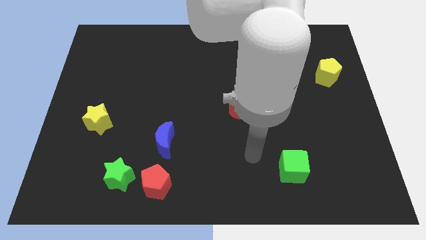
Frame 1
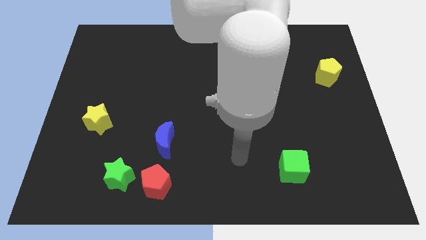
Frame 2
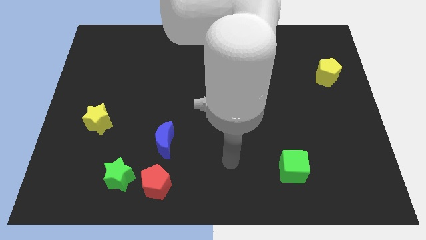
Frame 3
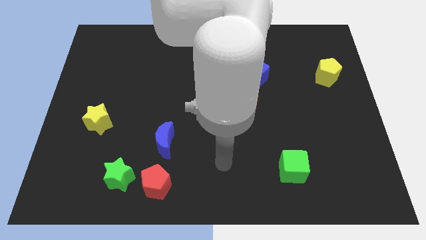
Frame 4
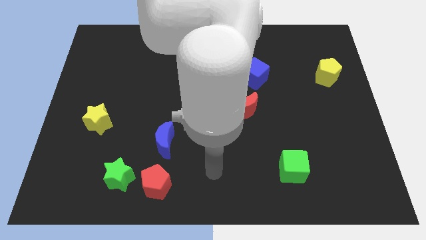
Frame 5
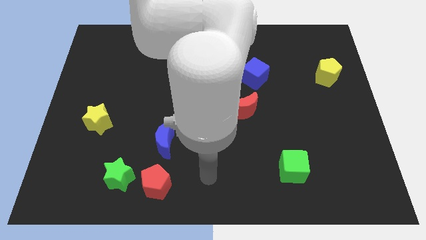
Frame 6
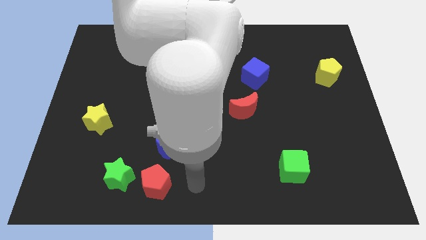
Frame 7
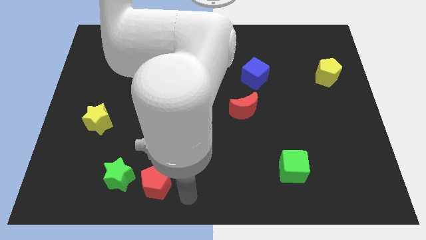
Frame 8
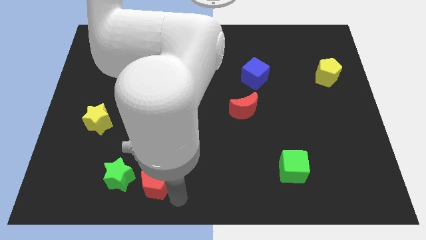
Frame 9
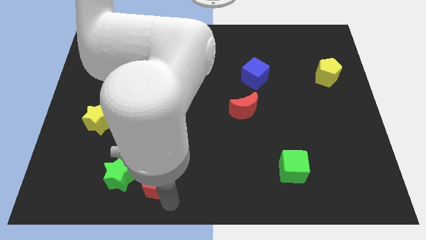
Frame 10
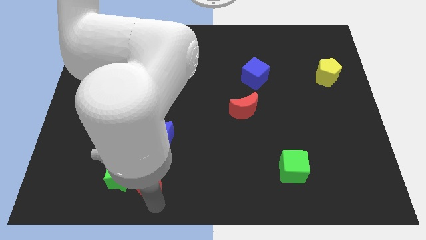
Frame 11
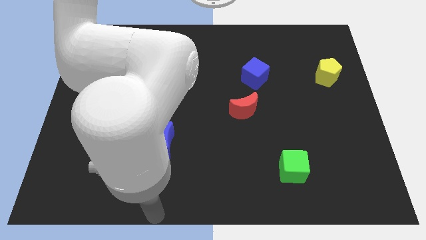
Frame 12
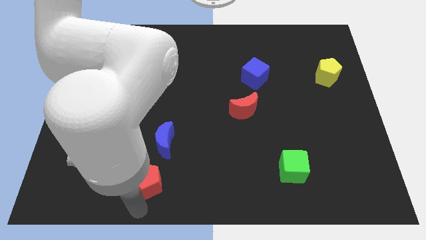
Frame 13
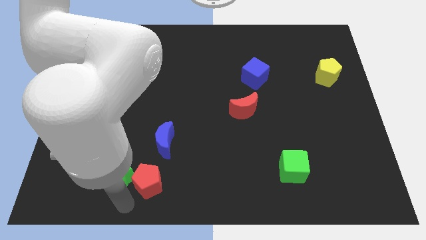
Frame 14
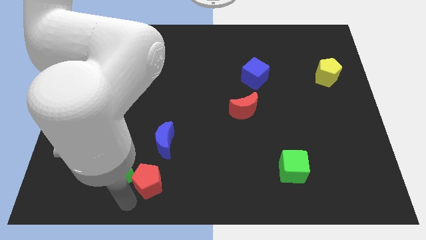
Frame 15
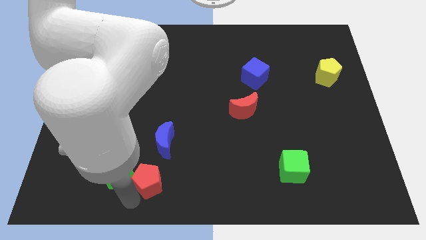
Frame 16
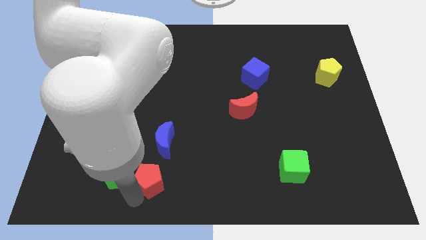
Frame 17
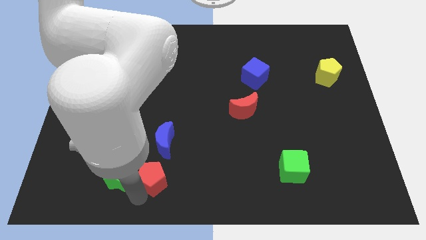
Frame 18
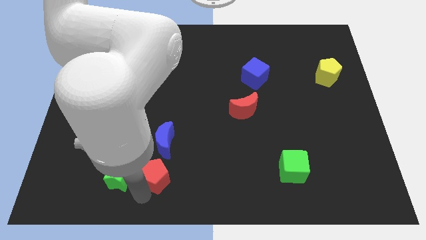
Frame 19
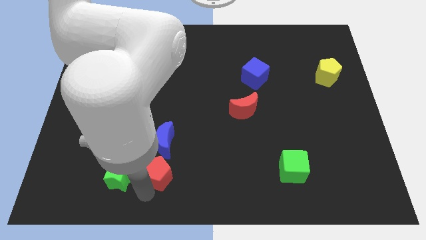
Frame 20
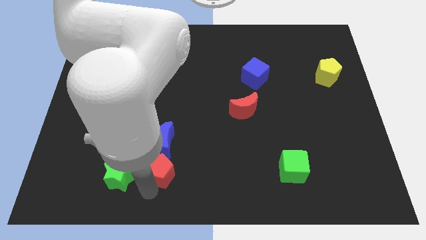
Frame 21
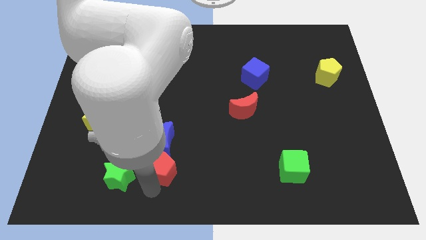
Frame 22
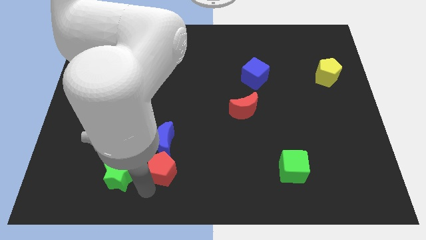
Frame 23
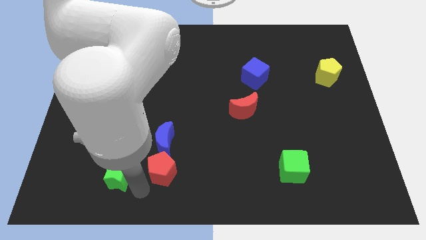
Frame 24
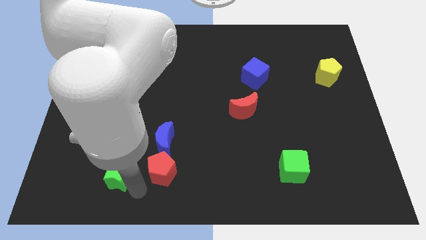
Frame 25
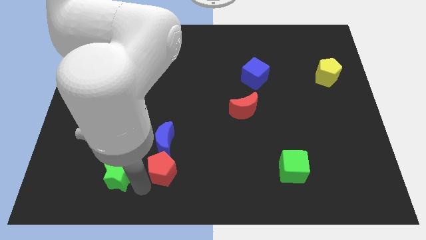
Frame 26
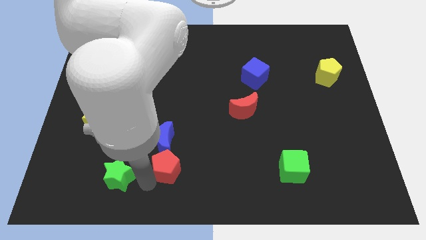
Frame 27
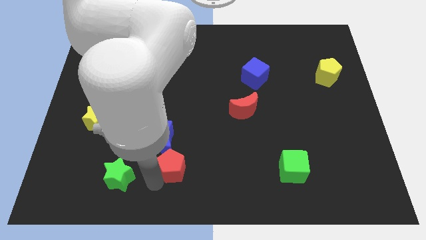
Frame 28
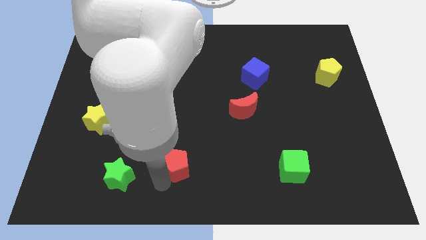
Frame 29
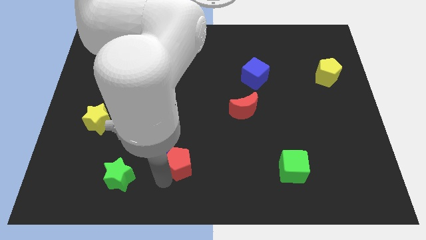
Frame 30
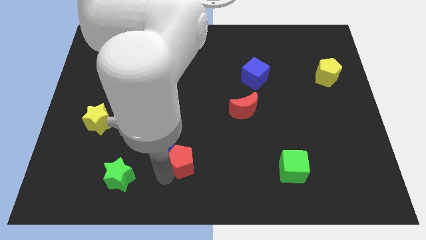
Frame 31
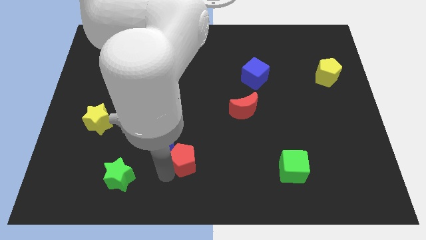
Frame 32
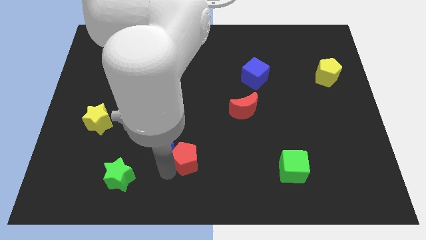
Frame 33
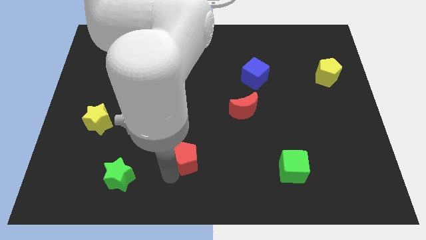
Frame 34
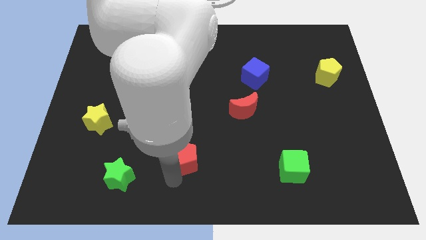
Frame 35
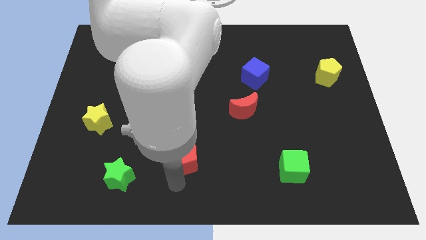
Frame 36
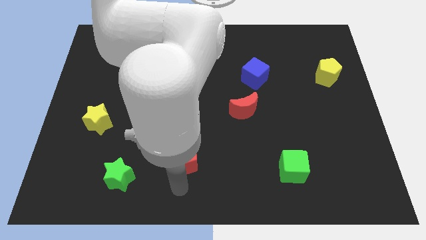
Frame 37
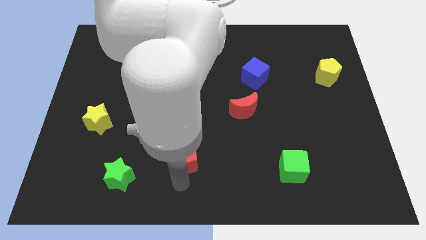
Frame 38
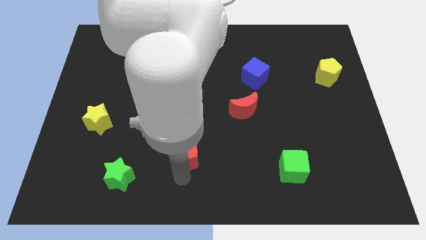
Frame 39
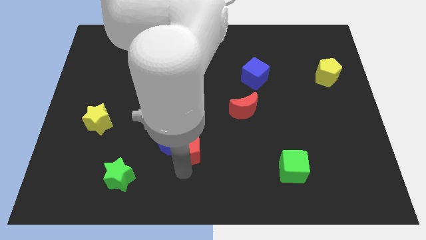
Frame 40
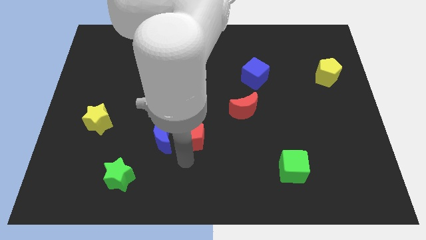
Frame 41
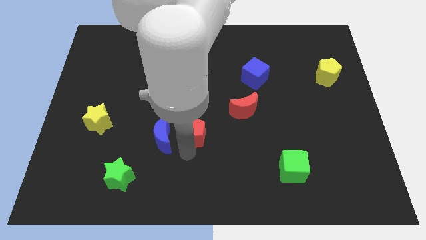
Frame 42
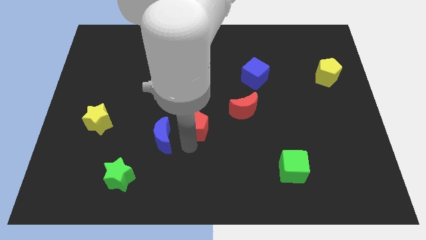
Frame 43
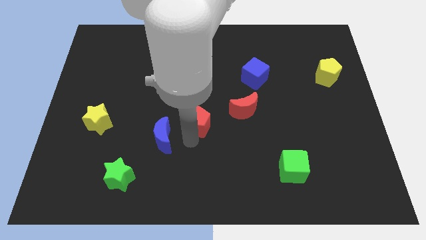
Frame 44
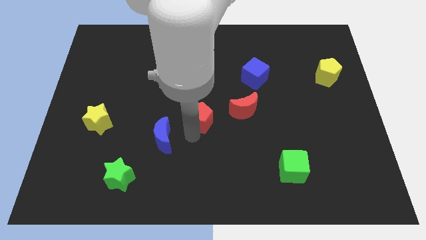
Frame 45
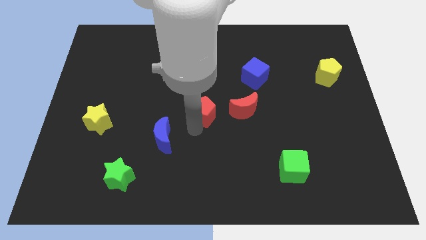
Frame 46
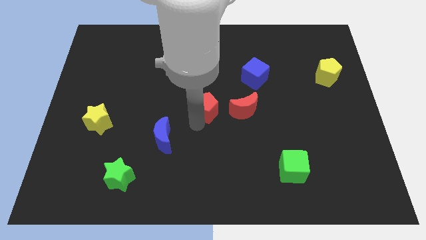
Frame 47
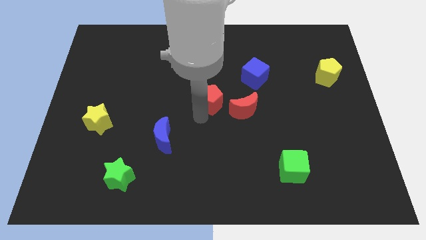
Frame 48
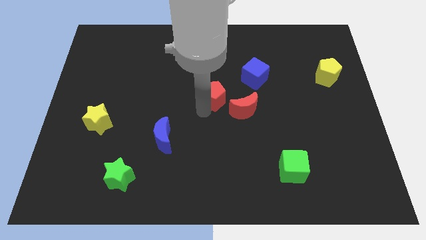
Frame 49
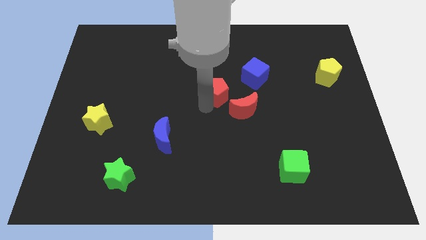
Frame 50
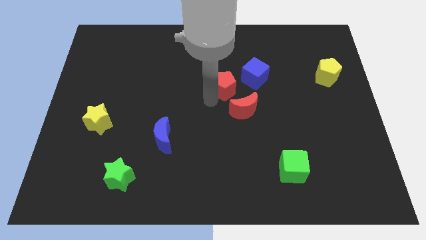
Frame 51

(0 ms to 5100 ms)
put the red pentagon to the top of the red moon

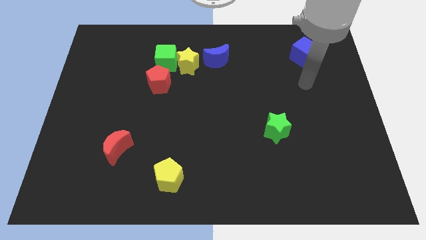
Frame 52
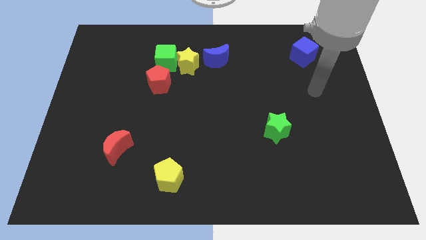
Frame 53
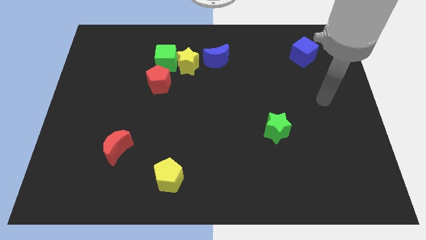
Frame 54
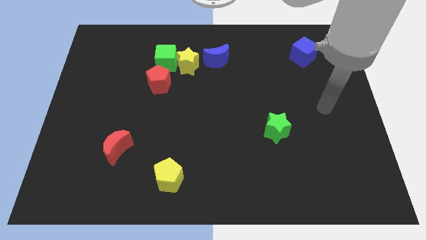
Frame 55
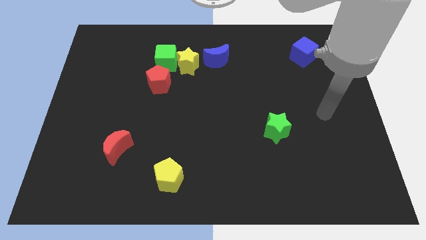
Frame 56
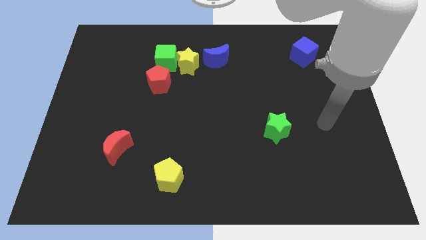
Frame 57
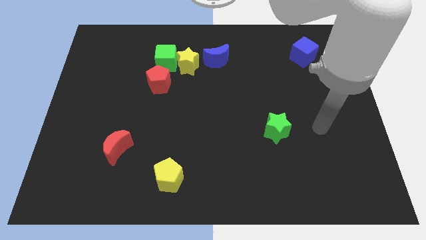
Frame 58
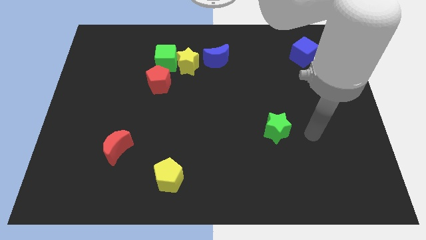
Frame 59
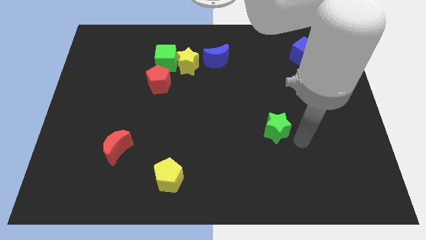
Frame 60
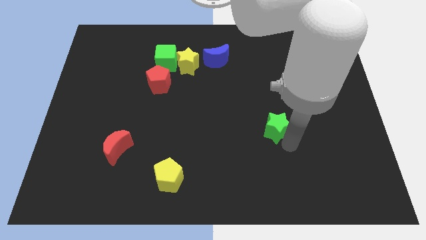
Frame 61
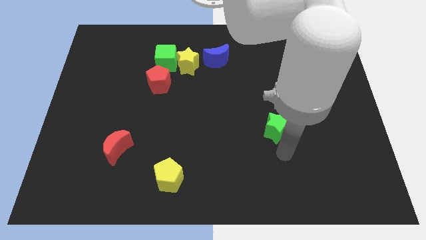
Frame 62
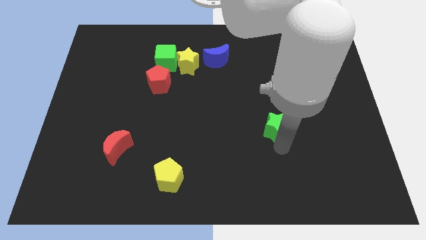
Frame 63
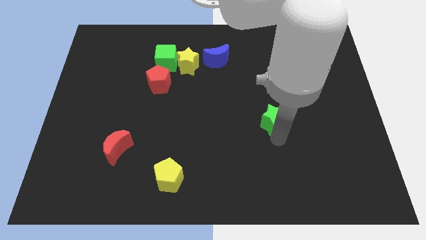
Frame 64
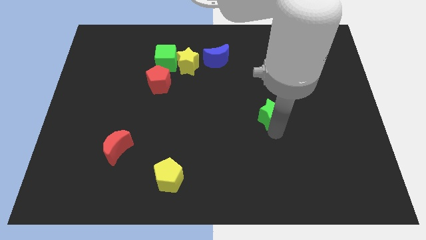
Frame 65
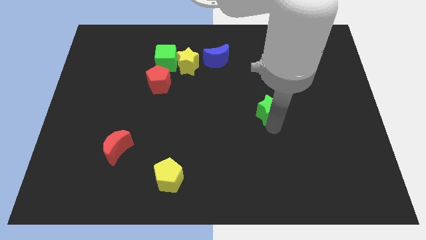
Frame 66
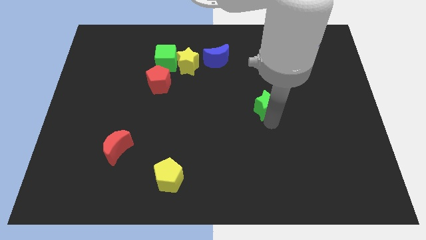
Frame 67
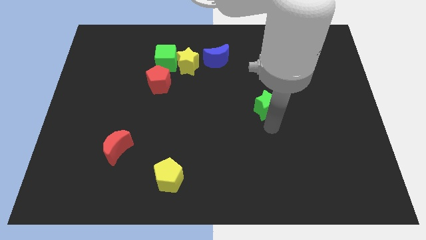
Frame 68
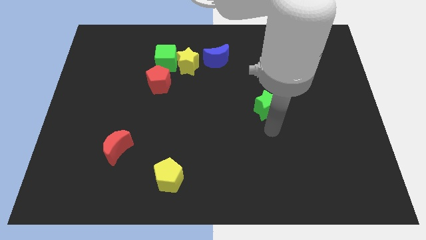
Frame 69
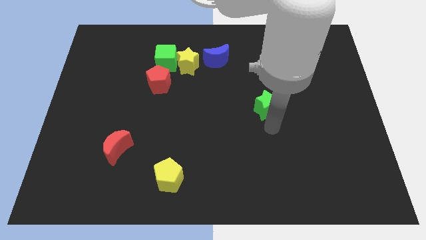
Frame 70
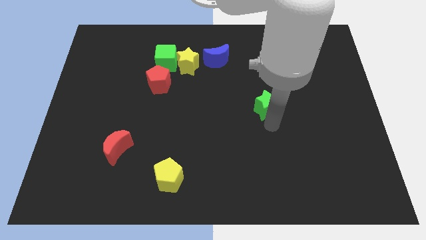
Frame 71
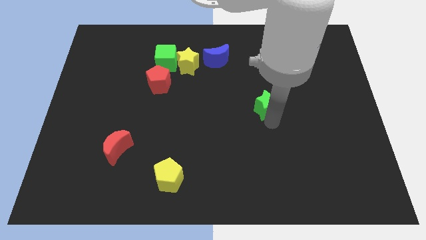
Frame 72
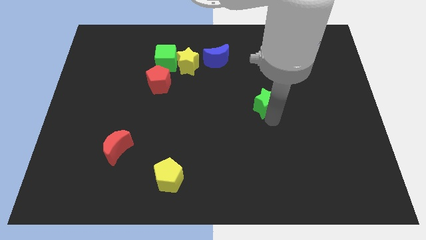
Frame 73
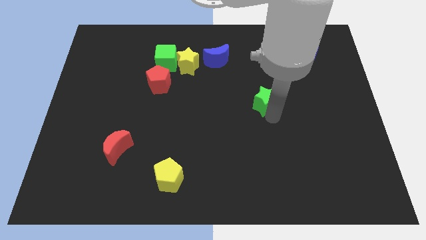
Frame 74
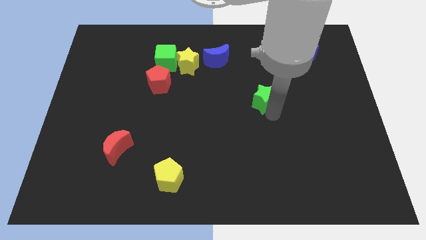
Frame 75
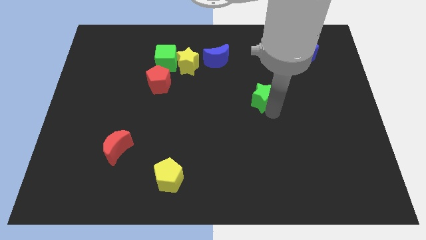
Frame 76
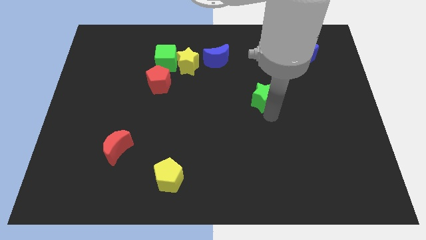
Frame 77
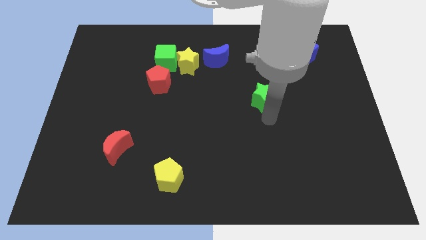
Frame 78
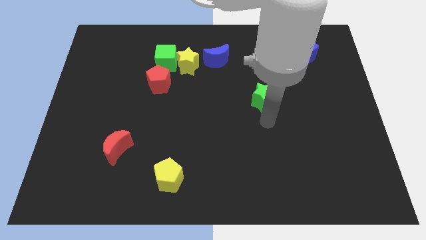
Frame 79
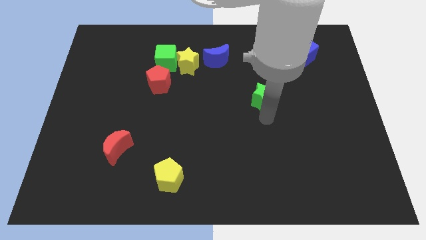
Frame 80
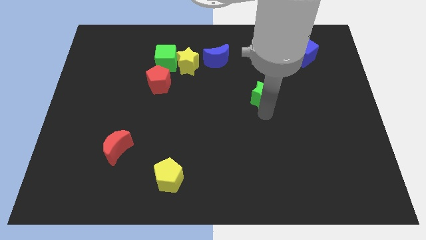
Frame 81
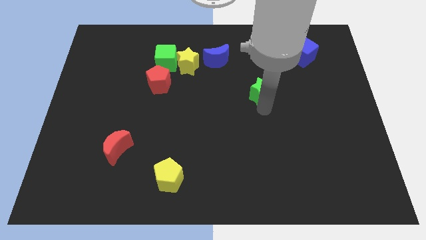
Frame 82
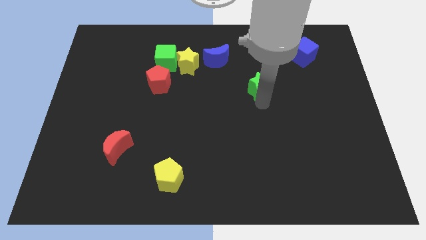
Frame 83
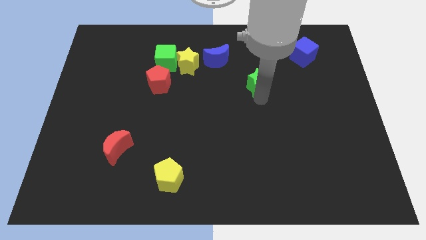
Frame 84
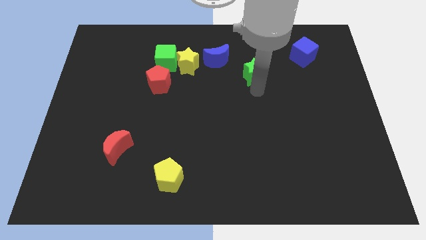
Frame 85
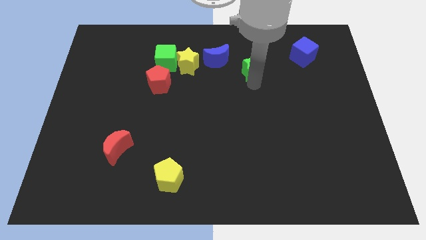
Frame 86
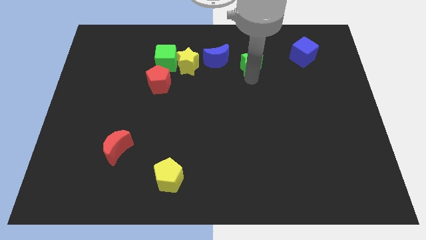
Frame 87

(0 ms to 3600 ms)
push the green star left of the blue cube
